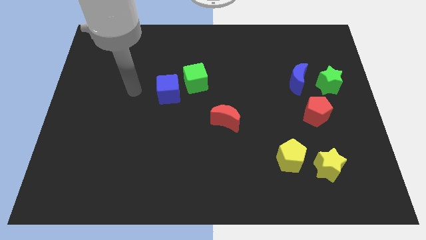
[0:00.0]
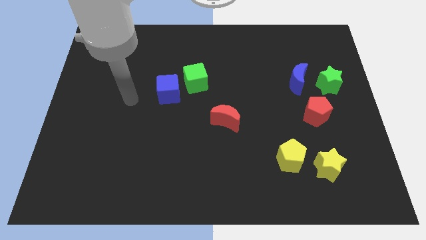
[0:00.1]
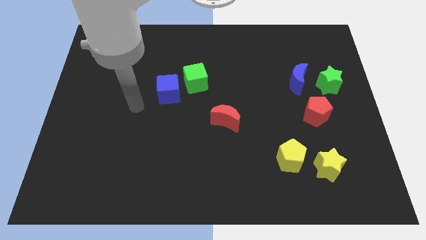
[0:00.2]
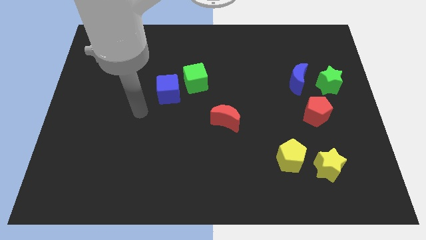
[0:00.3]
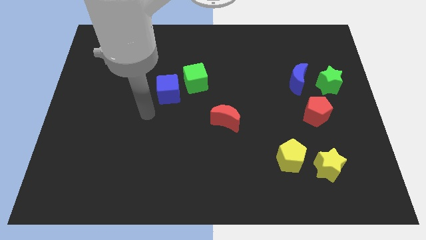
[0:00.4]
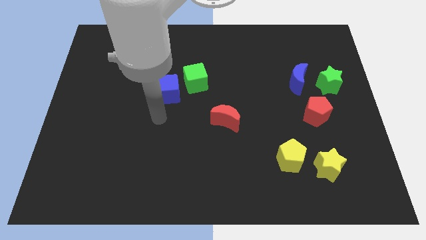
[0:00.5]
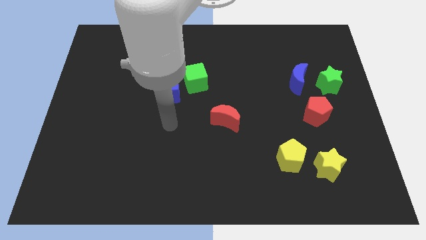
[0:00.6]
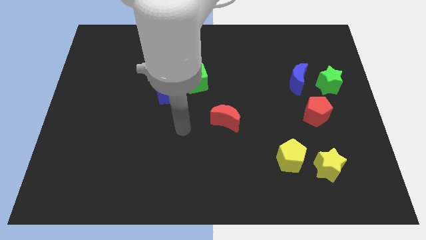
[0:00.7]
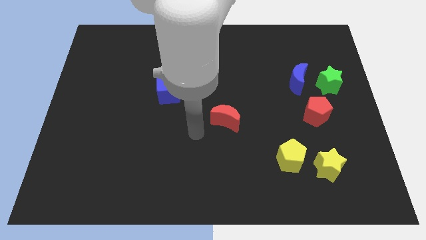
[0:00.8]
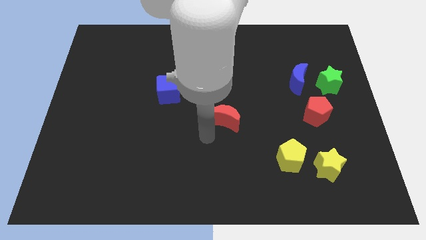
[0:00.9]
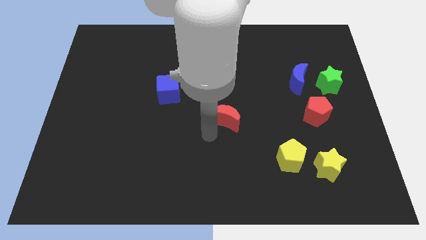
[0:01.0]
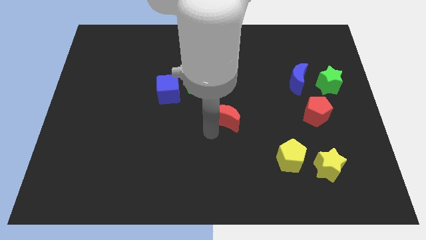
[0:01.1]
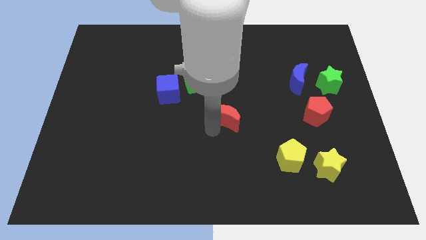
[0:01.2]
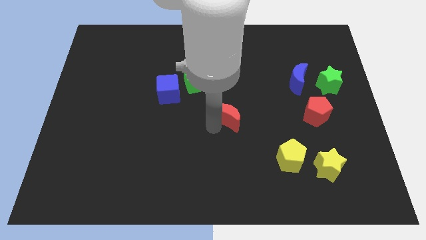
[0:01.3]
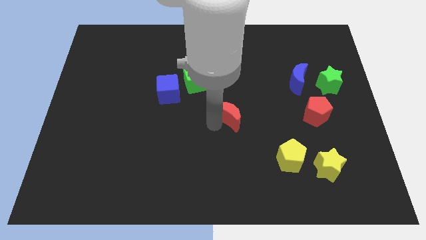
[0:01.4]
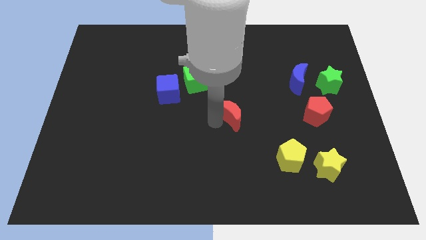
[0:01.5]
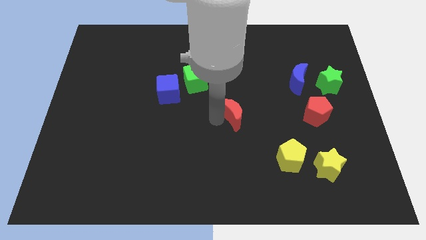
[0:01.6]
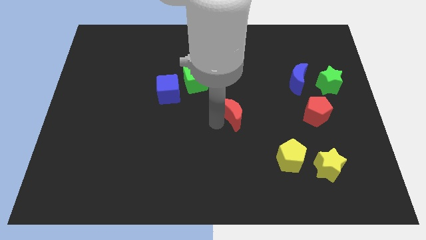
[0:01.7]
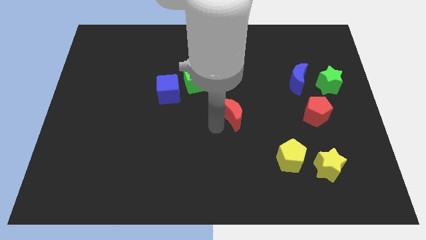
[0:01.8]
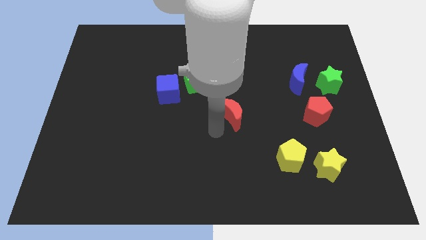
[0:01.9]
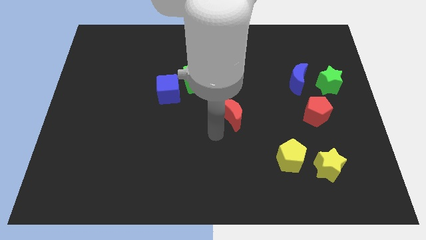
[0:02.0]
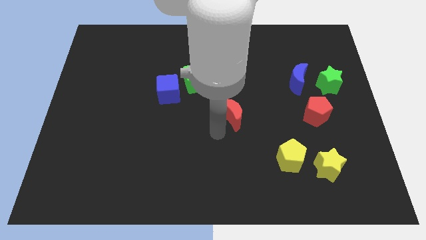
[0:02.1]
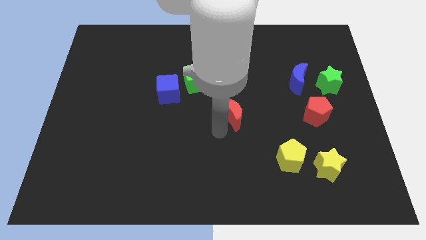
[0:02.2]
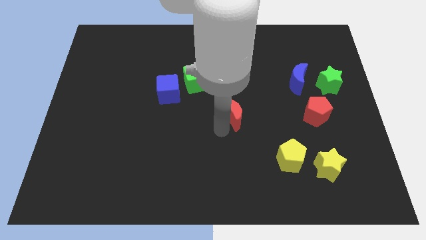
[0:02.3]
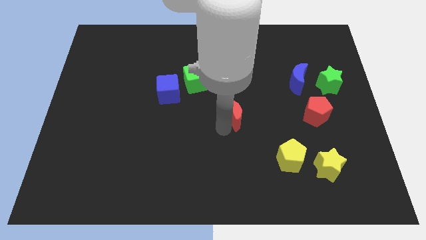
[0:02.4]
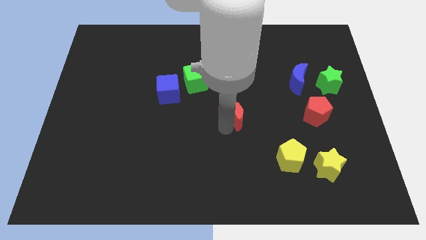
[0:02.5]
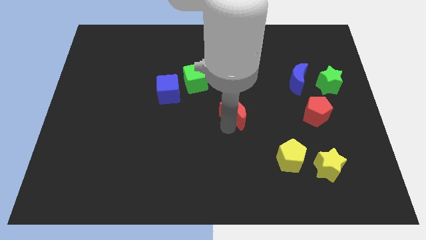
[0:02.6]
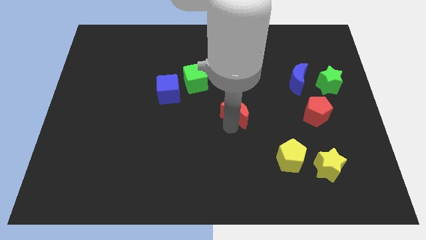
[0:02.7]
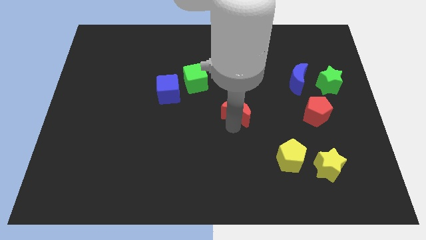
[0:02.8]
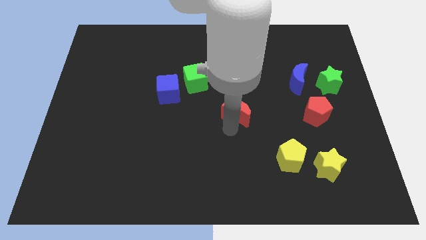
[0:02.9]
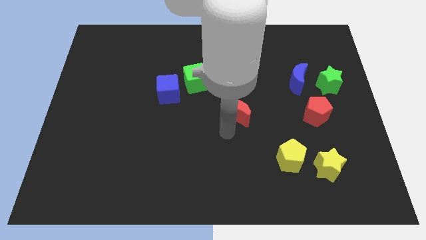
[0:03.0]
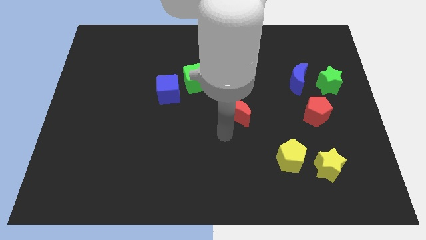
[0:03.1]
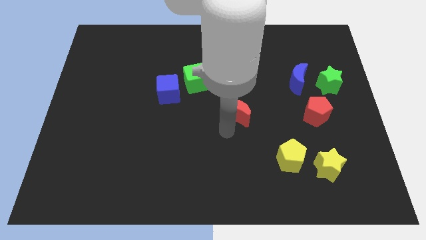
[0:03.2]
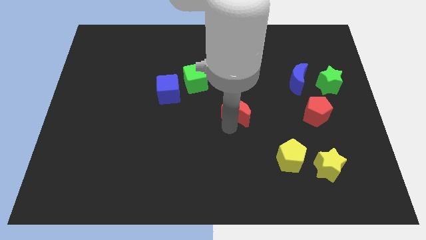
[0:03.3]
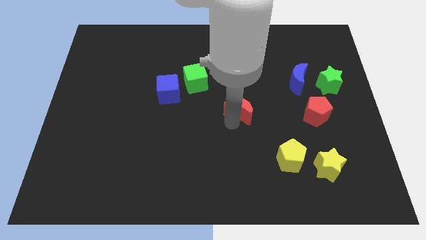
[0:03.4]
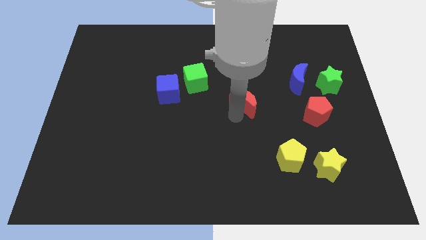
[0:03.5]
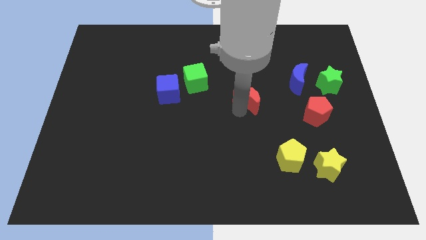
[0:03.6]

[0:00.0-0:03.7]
slightly slide the red moon diagonally up and right

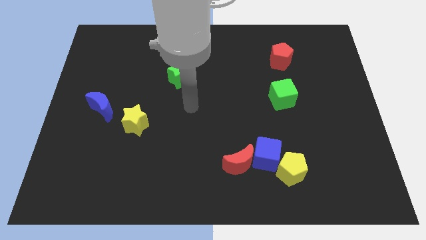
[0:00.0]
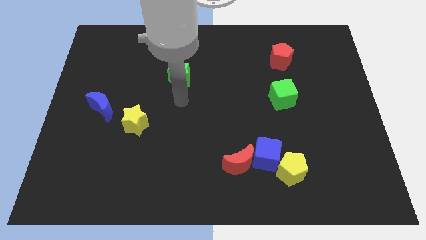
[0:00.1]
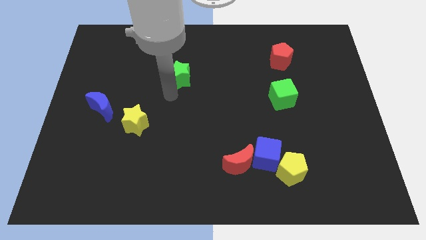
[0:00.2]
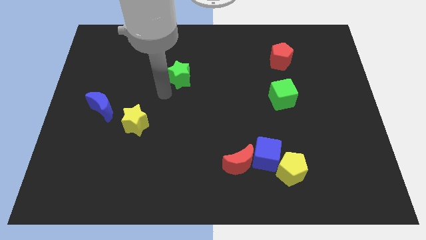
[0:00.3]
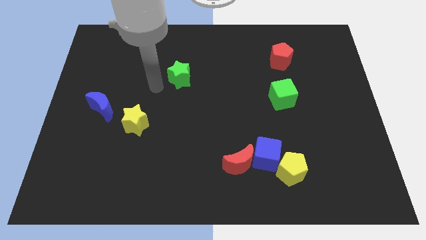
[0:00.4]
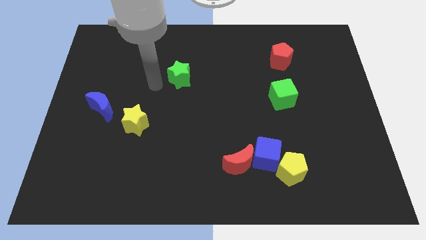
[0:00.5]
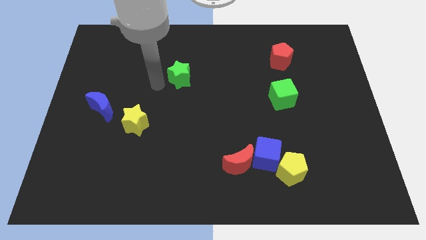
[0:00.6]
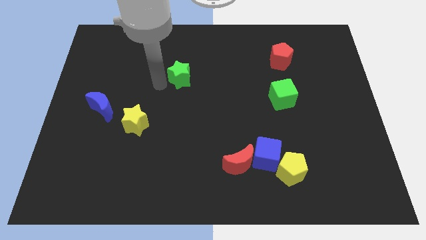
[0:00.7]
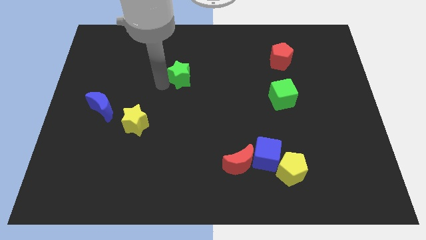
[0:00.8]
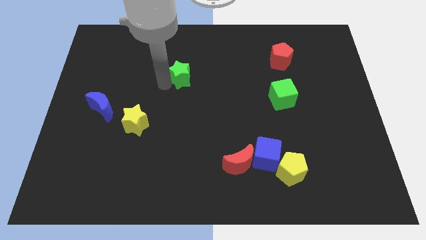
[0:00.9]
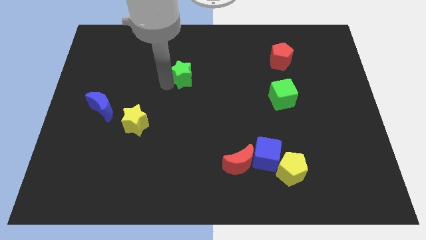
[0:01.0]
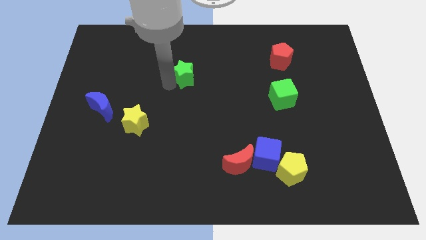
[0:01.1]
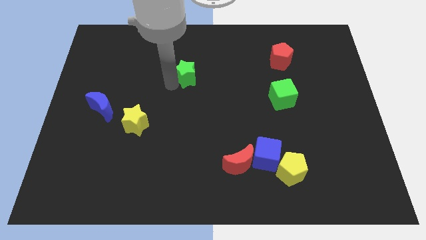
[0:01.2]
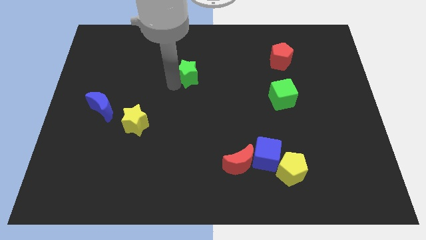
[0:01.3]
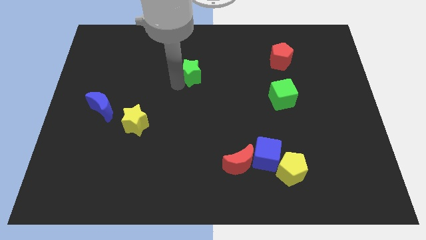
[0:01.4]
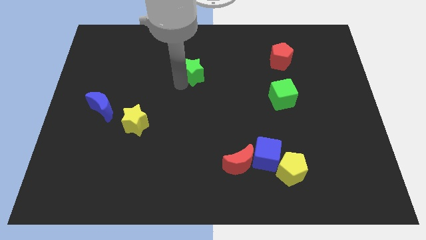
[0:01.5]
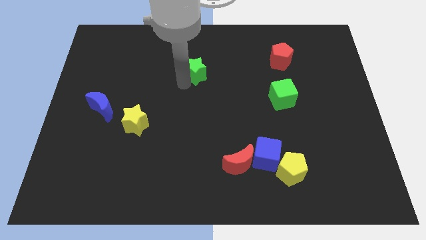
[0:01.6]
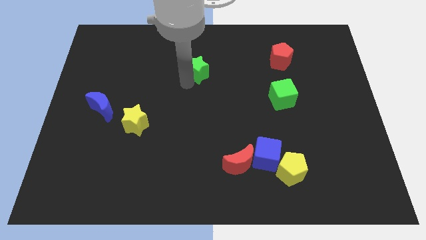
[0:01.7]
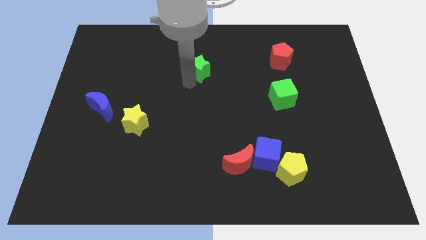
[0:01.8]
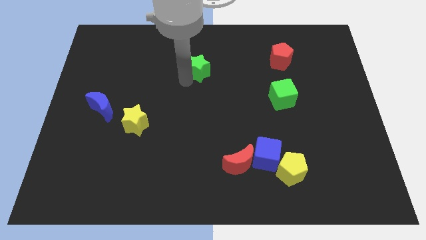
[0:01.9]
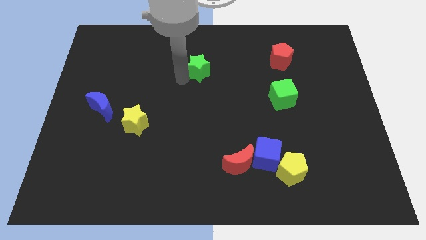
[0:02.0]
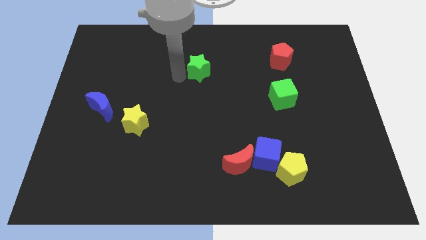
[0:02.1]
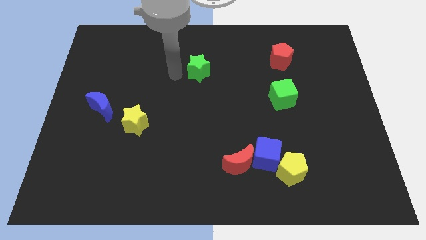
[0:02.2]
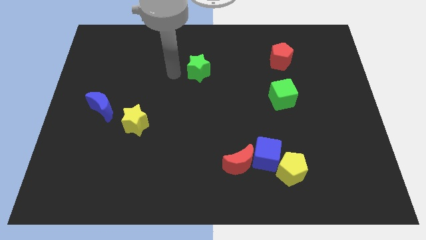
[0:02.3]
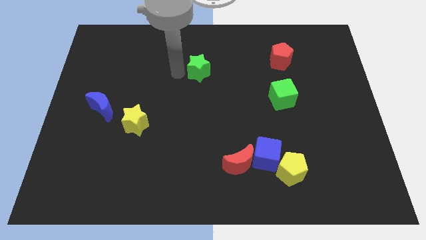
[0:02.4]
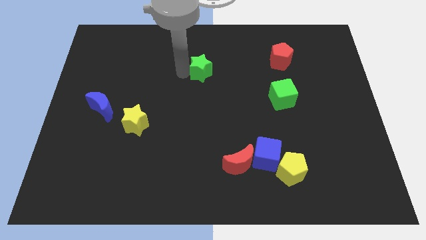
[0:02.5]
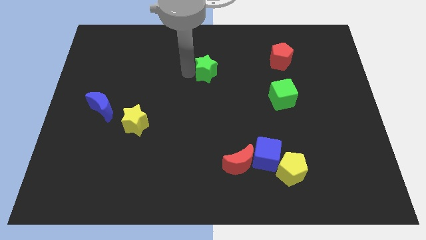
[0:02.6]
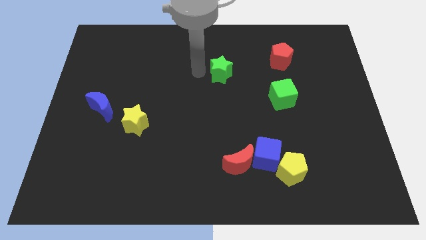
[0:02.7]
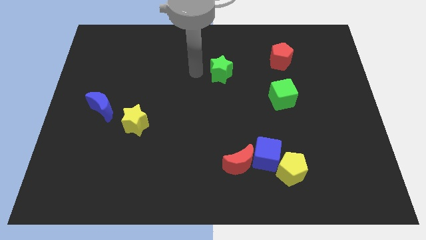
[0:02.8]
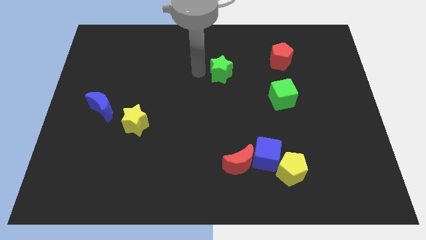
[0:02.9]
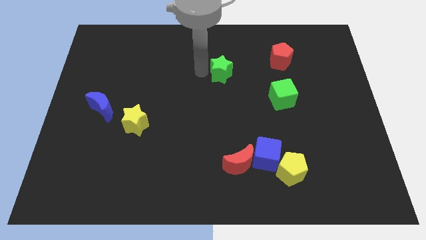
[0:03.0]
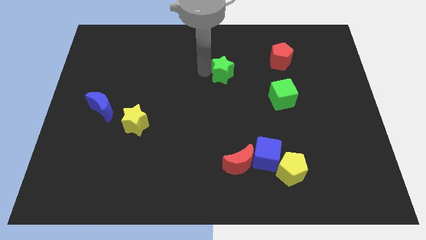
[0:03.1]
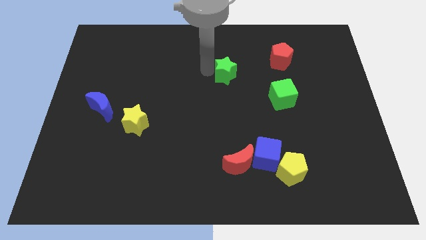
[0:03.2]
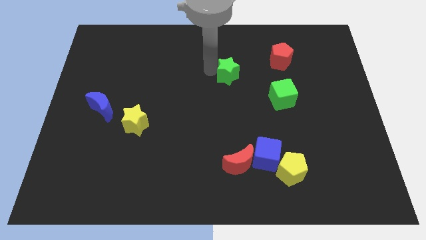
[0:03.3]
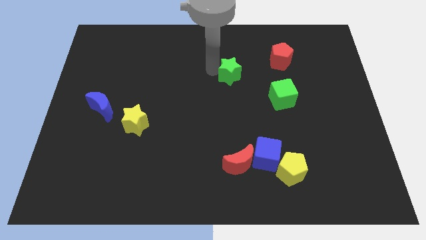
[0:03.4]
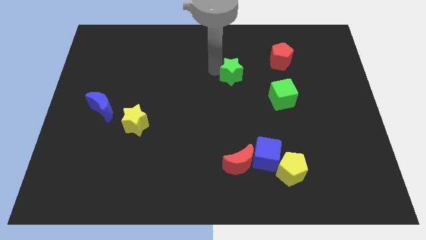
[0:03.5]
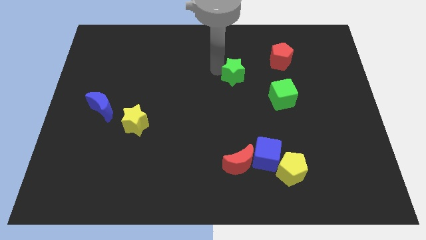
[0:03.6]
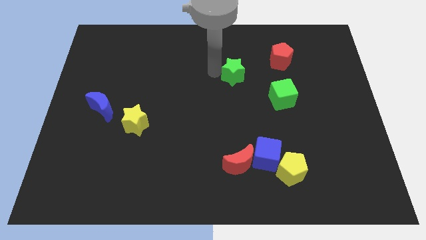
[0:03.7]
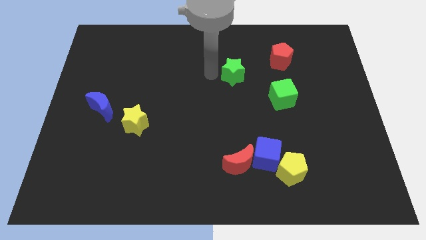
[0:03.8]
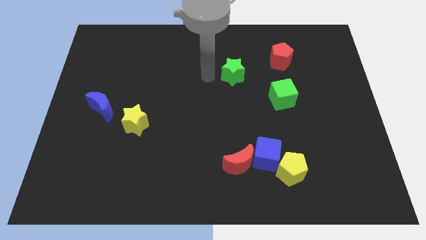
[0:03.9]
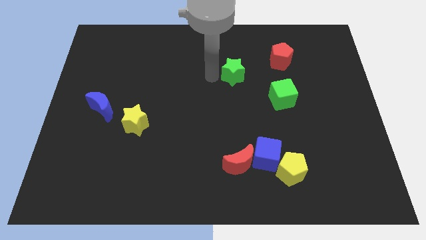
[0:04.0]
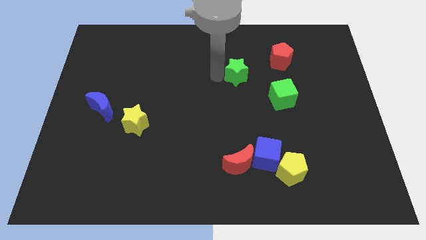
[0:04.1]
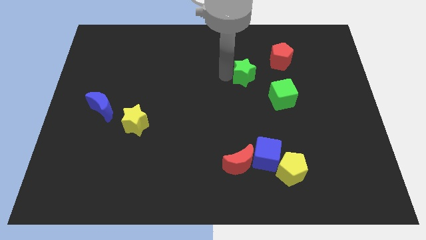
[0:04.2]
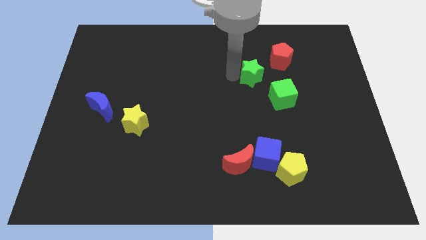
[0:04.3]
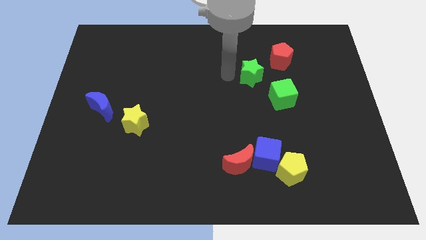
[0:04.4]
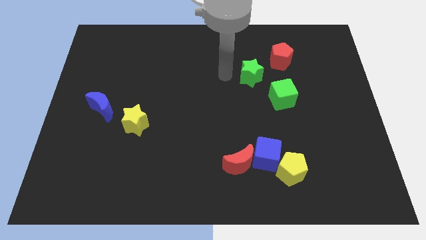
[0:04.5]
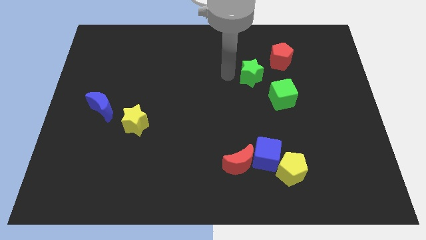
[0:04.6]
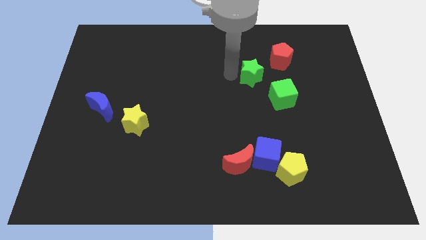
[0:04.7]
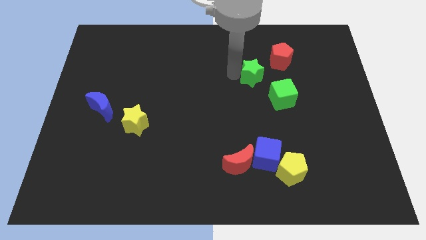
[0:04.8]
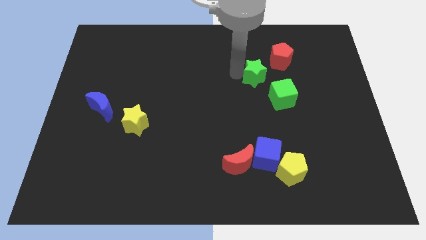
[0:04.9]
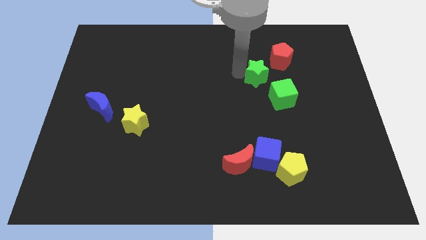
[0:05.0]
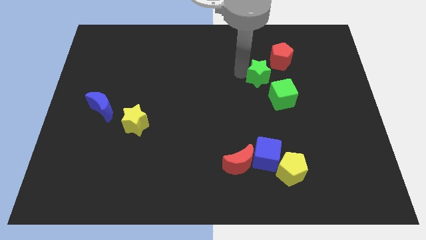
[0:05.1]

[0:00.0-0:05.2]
move the green star right
